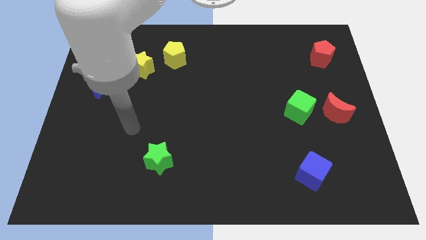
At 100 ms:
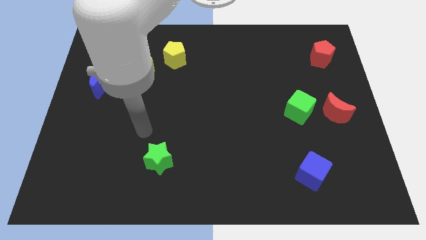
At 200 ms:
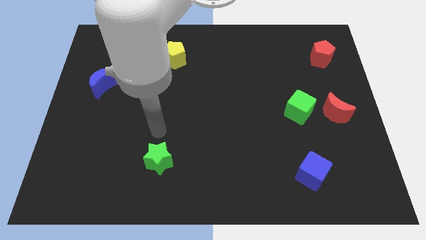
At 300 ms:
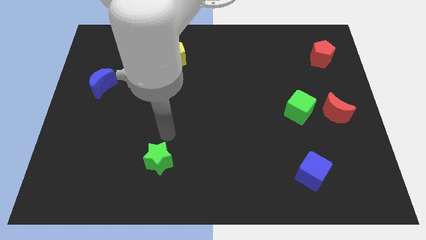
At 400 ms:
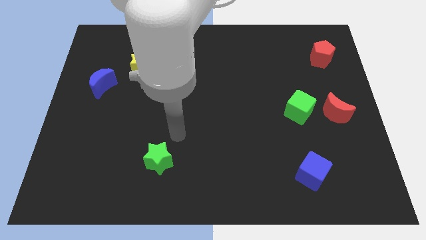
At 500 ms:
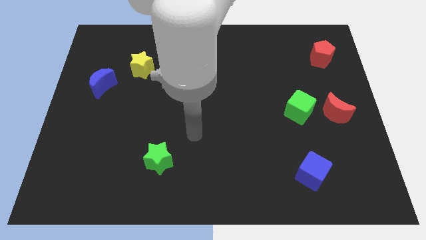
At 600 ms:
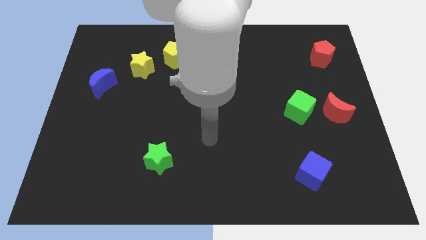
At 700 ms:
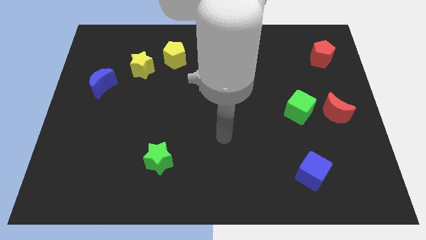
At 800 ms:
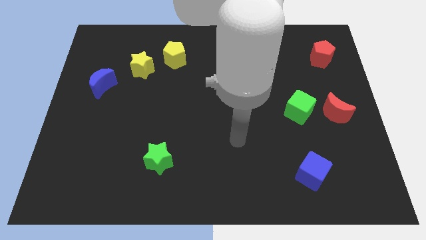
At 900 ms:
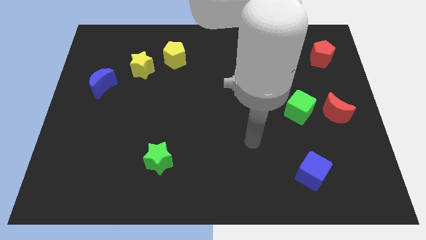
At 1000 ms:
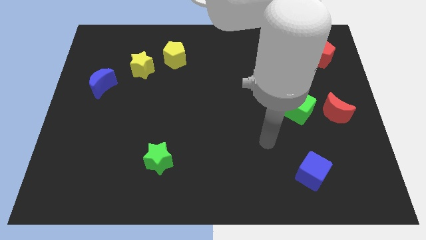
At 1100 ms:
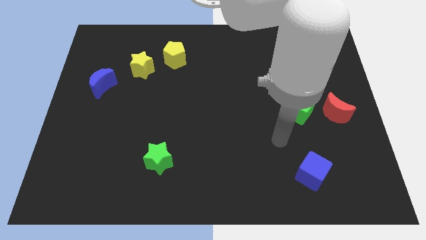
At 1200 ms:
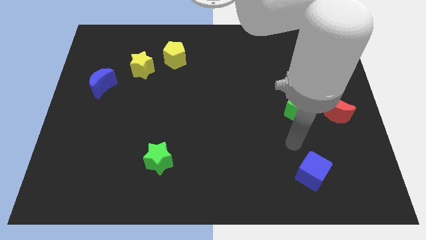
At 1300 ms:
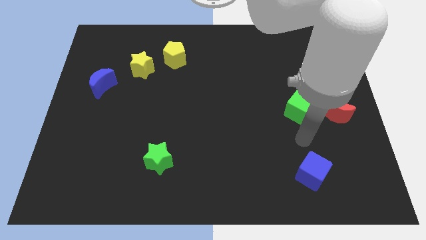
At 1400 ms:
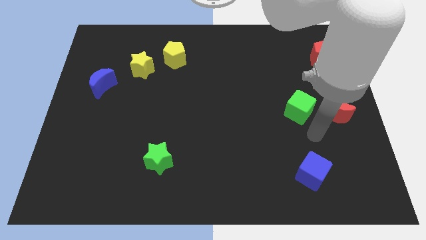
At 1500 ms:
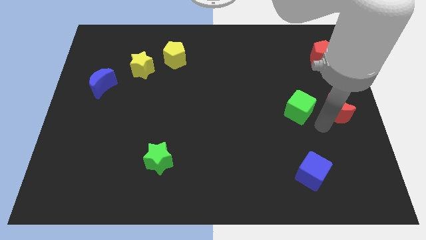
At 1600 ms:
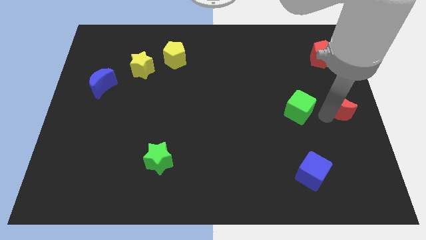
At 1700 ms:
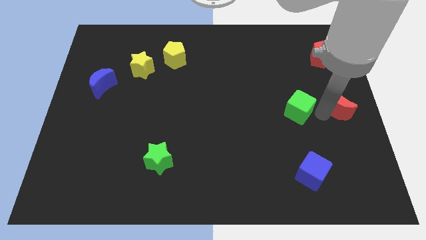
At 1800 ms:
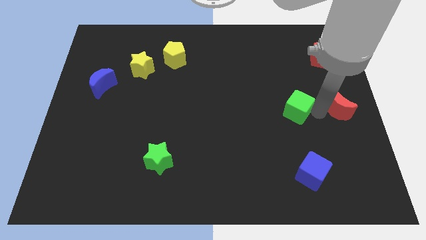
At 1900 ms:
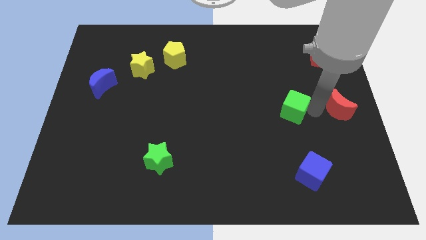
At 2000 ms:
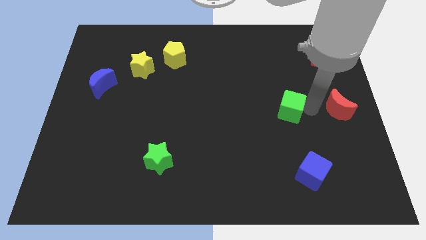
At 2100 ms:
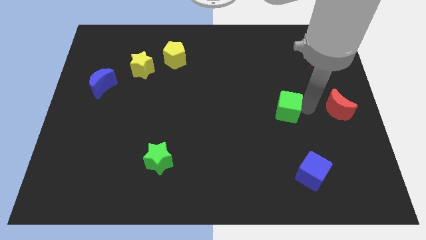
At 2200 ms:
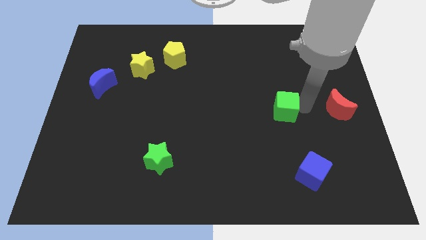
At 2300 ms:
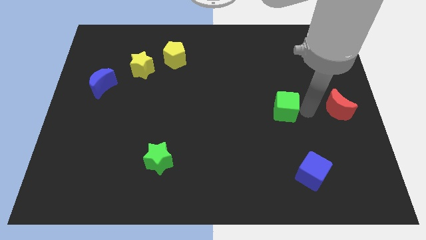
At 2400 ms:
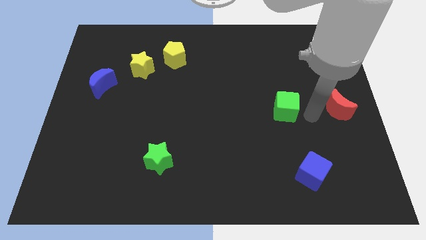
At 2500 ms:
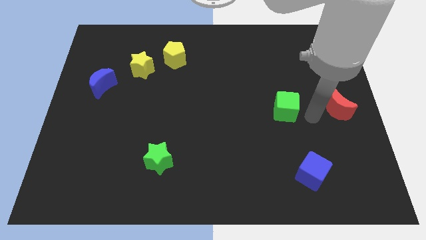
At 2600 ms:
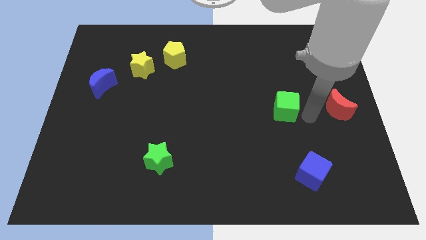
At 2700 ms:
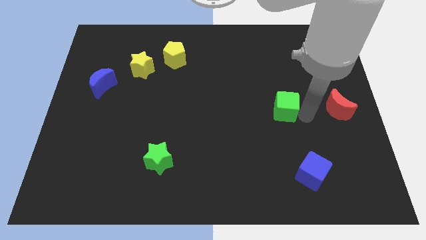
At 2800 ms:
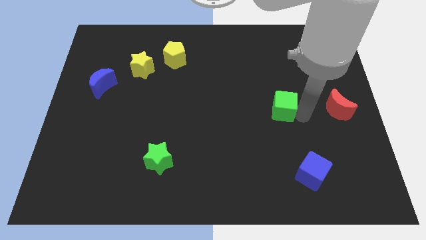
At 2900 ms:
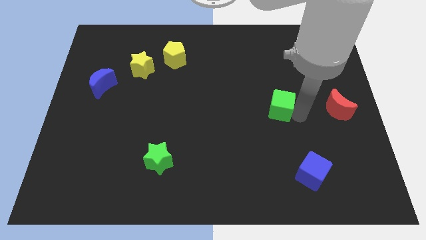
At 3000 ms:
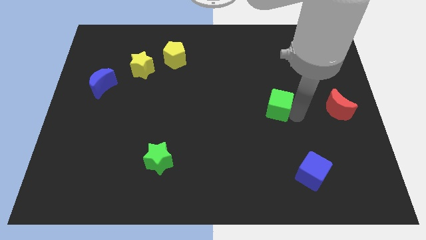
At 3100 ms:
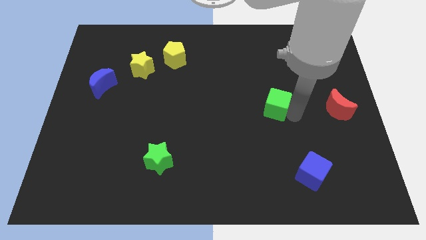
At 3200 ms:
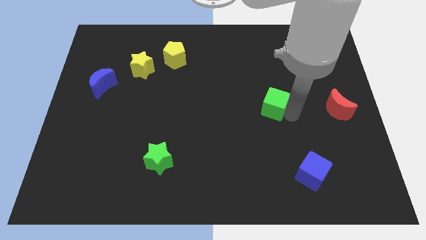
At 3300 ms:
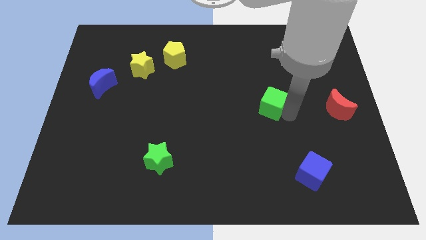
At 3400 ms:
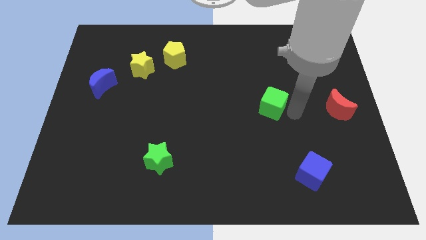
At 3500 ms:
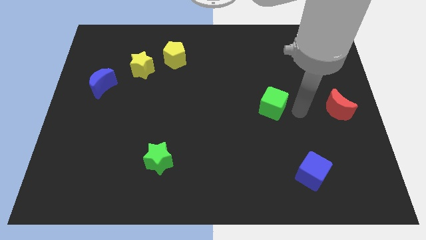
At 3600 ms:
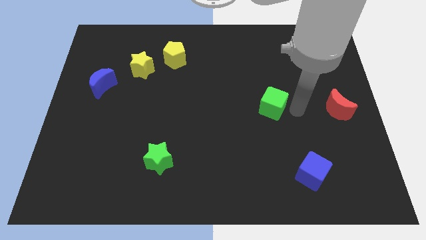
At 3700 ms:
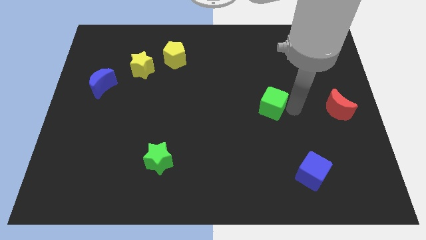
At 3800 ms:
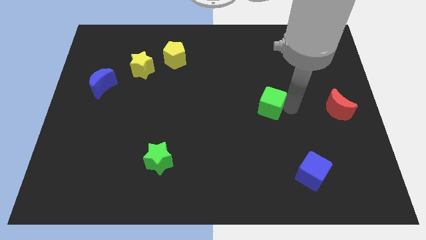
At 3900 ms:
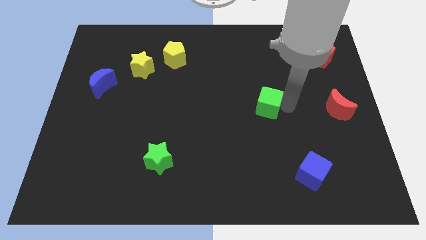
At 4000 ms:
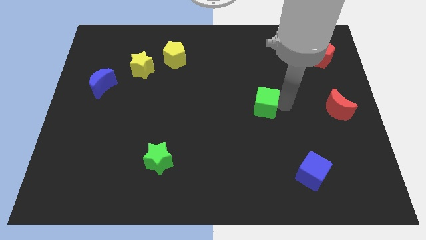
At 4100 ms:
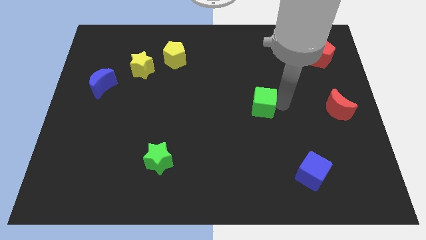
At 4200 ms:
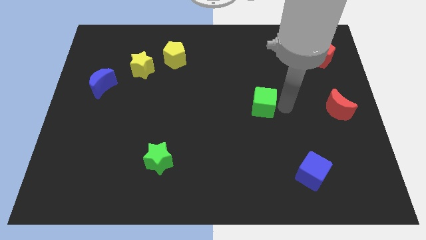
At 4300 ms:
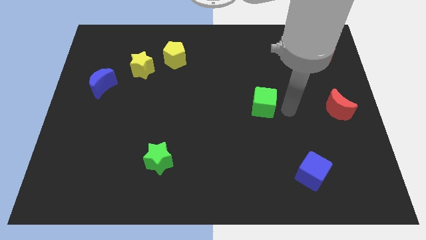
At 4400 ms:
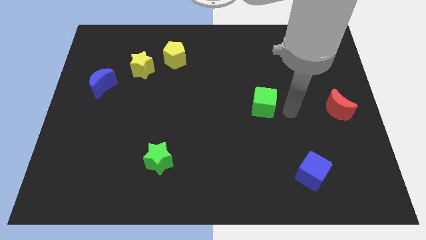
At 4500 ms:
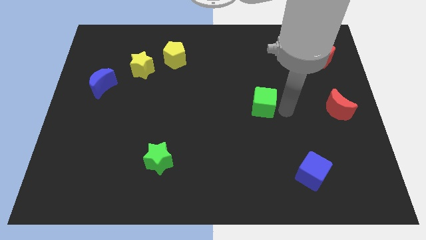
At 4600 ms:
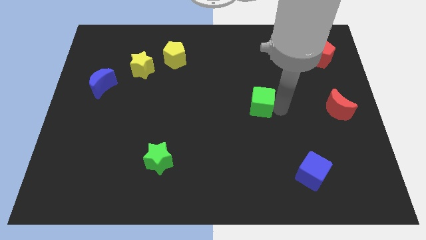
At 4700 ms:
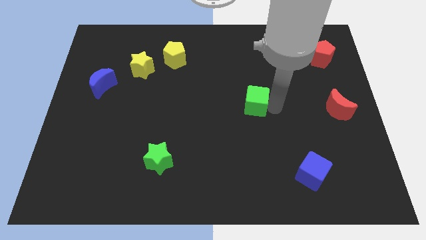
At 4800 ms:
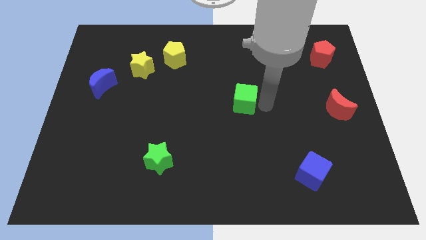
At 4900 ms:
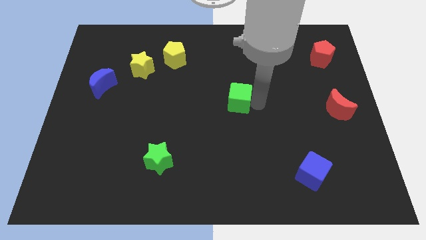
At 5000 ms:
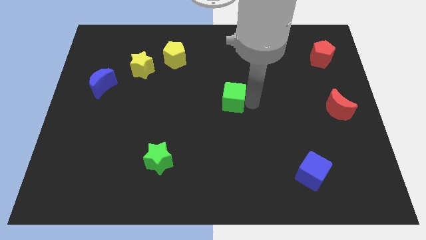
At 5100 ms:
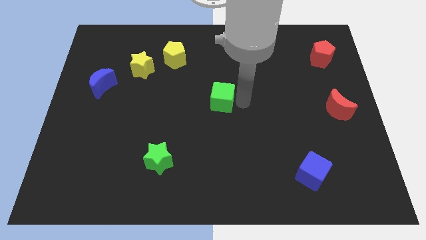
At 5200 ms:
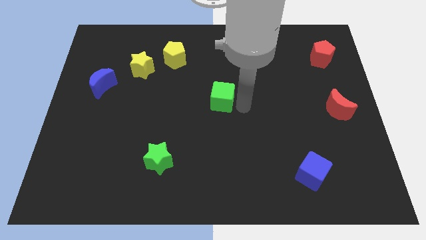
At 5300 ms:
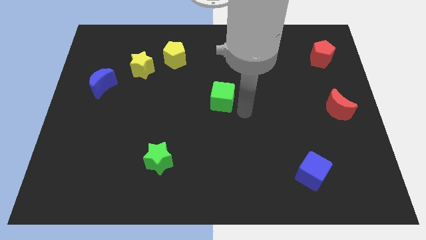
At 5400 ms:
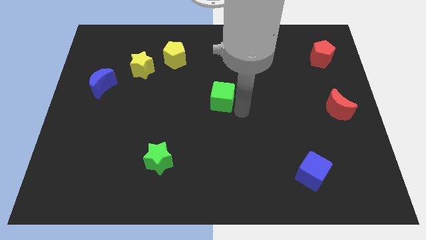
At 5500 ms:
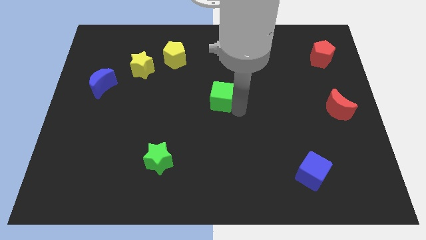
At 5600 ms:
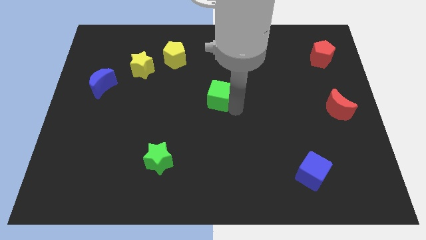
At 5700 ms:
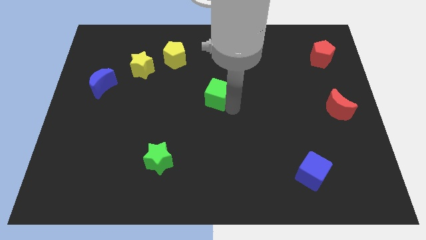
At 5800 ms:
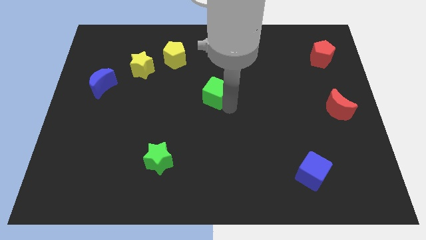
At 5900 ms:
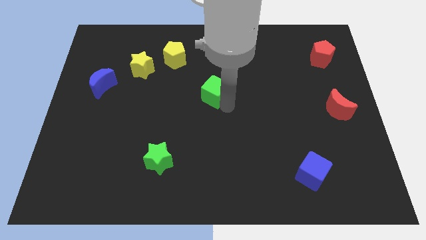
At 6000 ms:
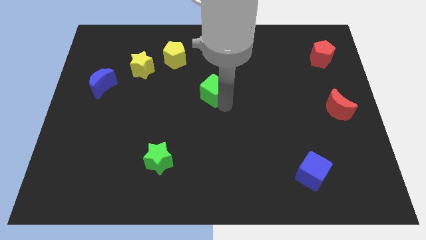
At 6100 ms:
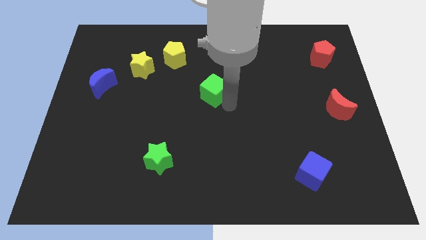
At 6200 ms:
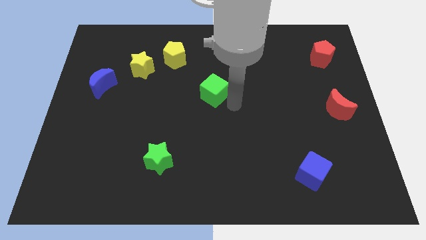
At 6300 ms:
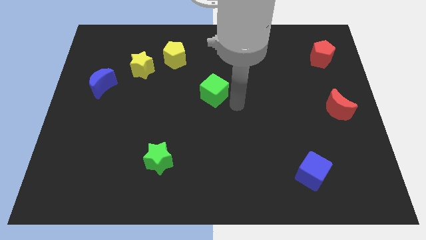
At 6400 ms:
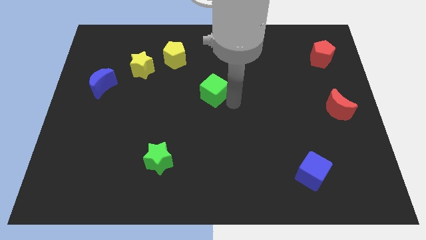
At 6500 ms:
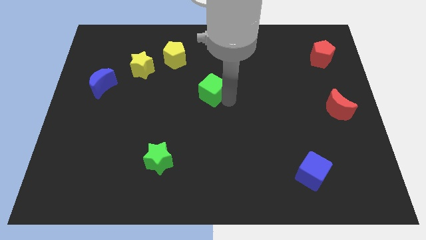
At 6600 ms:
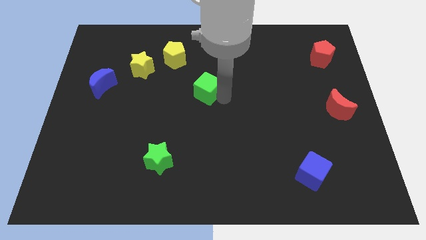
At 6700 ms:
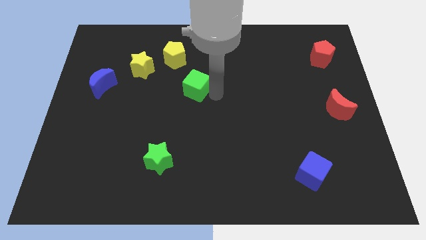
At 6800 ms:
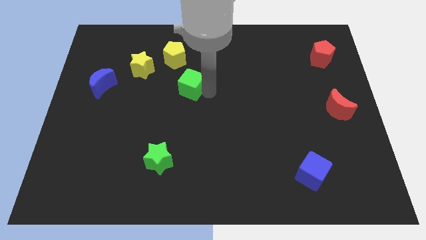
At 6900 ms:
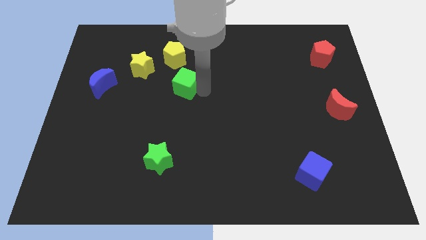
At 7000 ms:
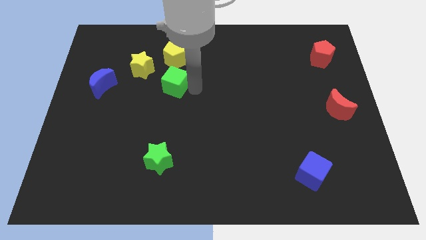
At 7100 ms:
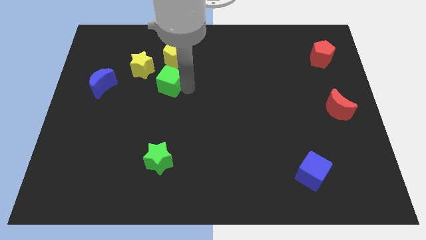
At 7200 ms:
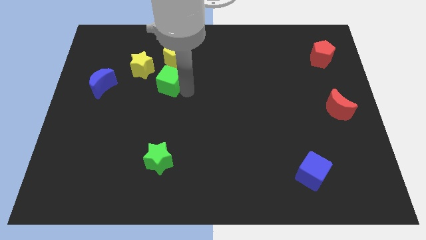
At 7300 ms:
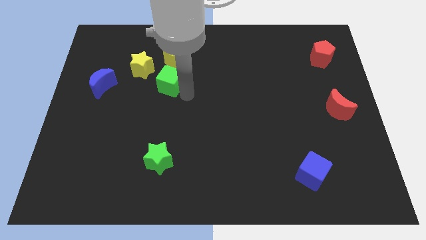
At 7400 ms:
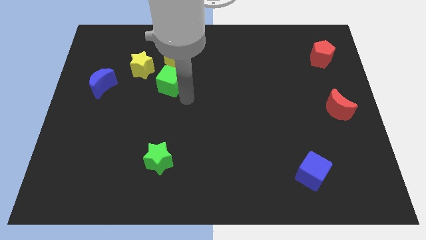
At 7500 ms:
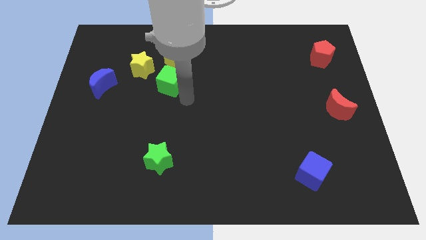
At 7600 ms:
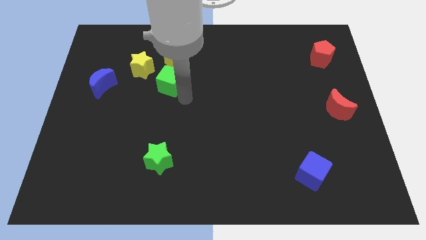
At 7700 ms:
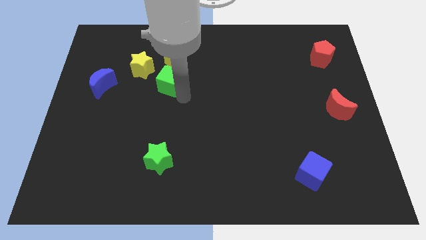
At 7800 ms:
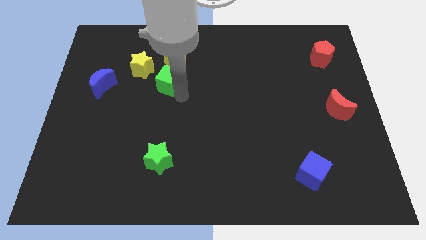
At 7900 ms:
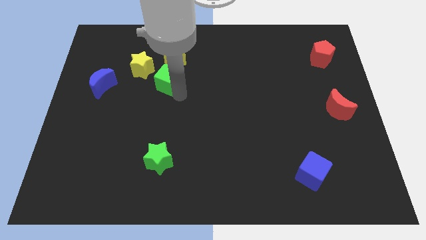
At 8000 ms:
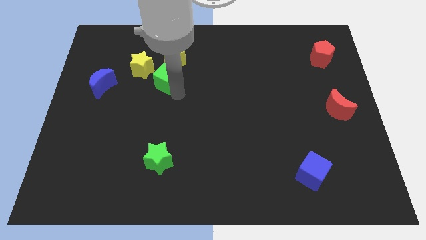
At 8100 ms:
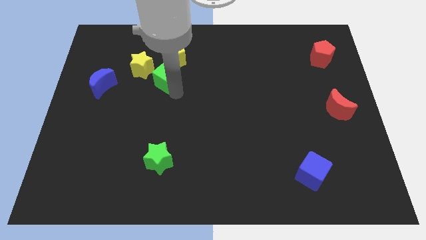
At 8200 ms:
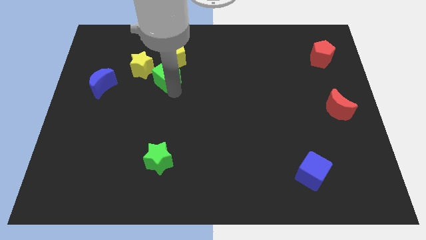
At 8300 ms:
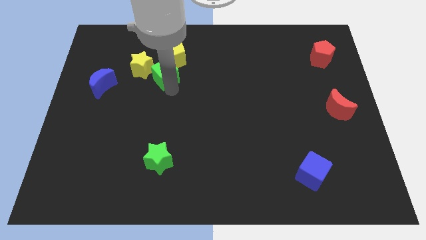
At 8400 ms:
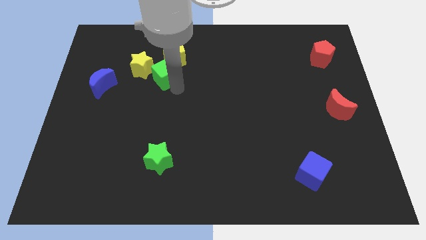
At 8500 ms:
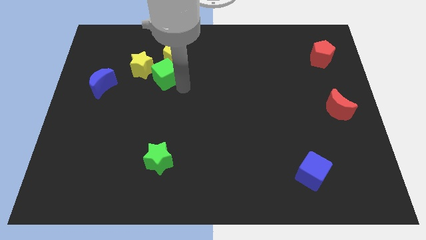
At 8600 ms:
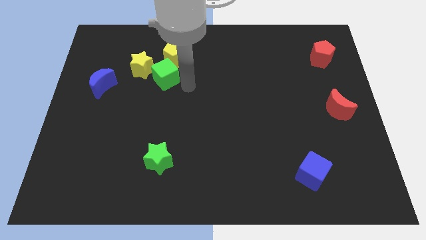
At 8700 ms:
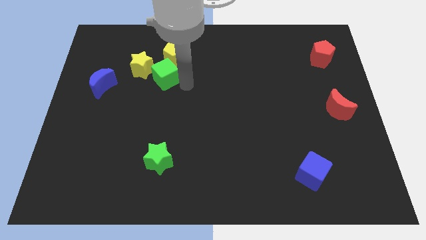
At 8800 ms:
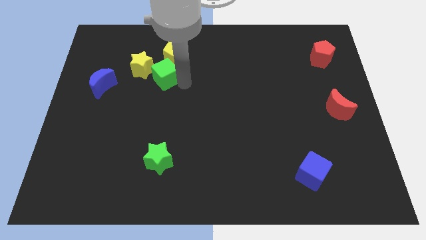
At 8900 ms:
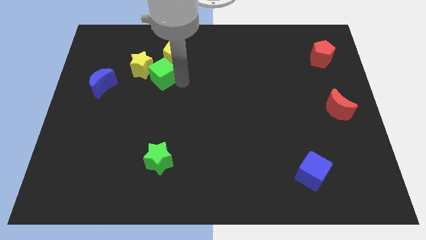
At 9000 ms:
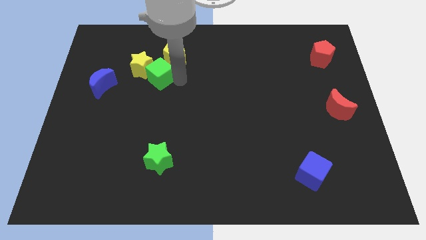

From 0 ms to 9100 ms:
push the green cube to the yellow star
